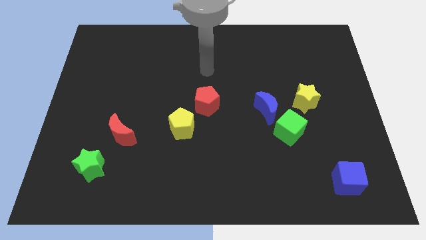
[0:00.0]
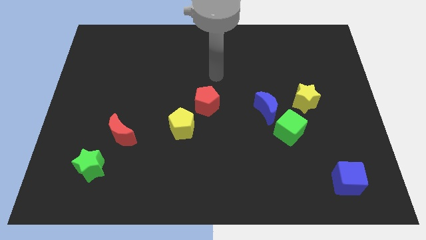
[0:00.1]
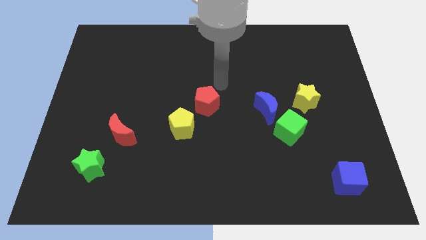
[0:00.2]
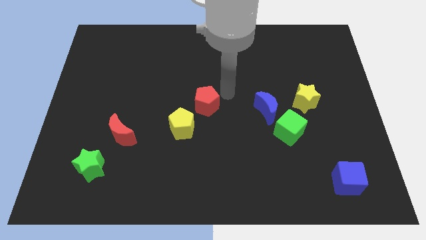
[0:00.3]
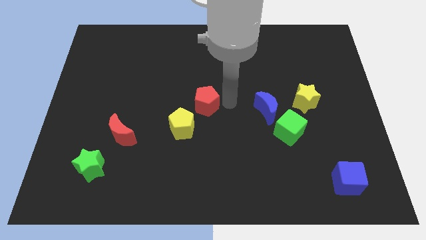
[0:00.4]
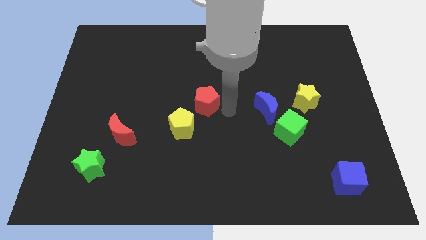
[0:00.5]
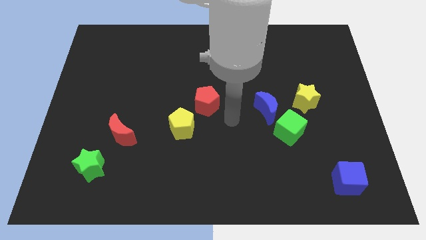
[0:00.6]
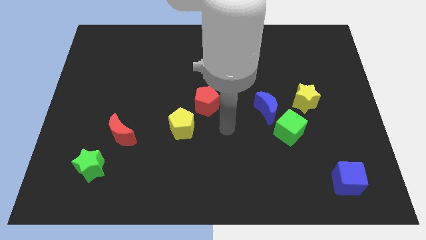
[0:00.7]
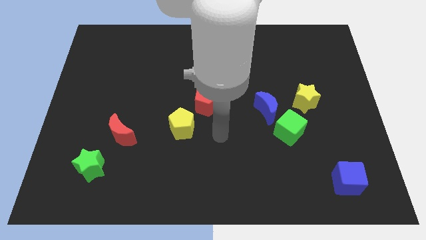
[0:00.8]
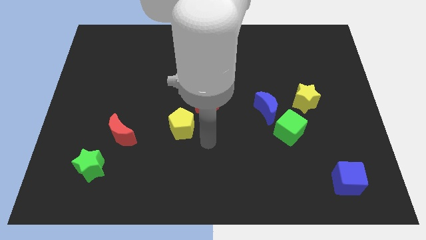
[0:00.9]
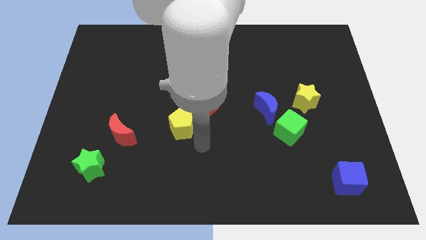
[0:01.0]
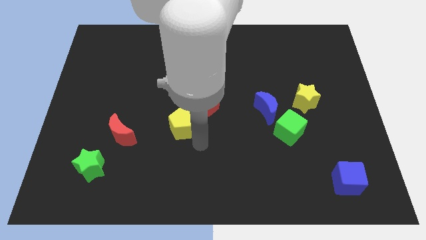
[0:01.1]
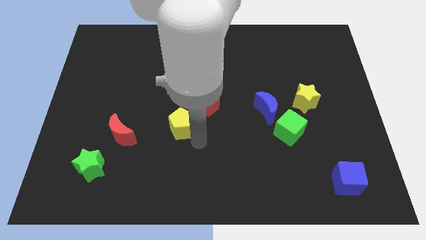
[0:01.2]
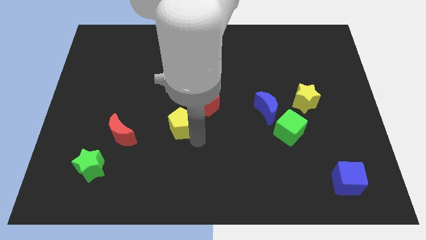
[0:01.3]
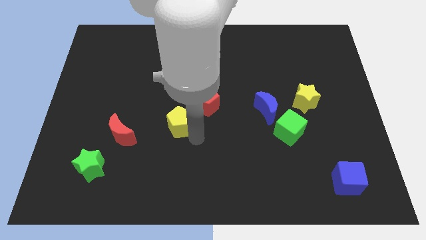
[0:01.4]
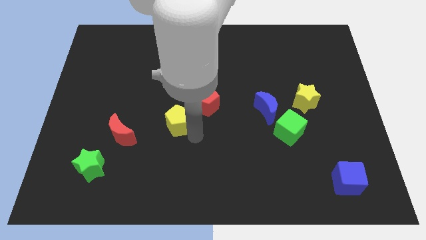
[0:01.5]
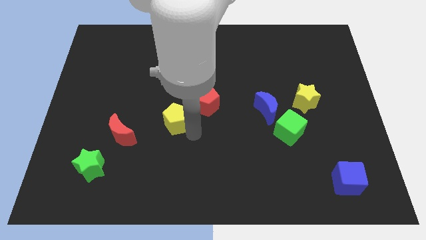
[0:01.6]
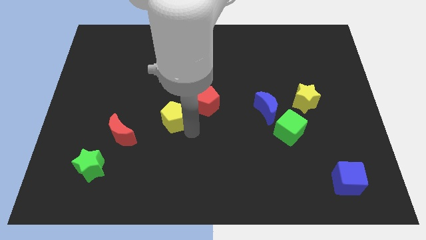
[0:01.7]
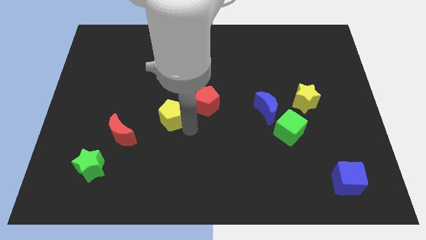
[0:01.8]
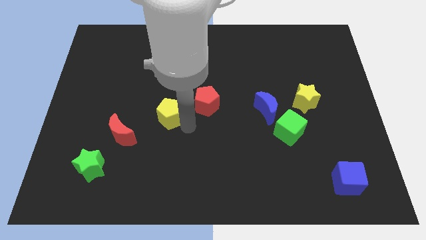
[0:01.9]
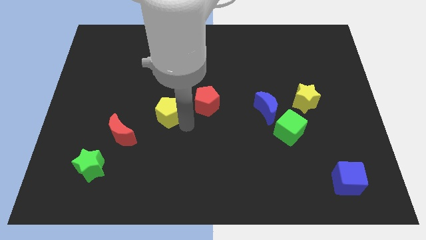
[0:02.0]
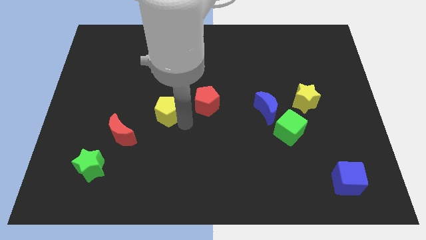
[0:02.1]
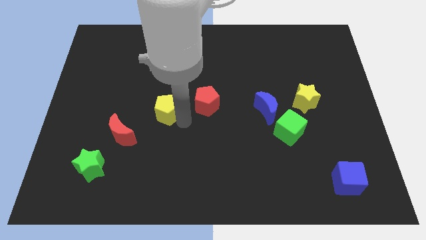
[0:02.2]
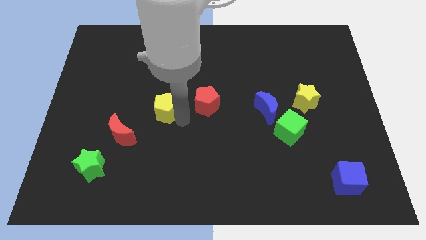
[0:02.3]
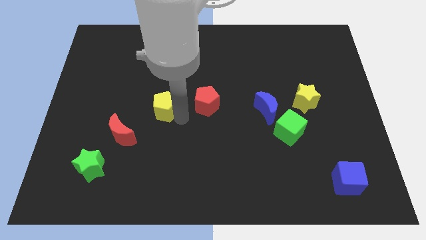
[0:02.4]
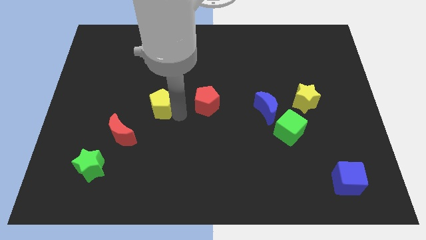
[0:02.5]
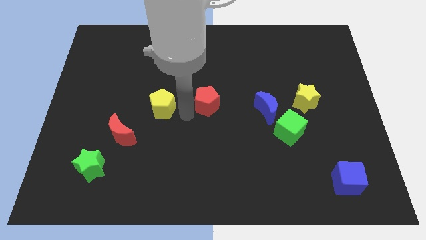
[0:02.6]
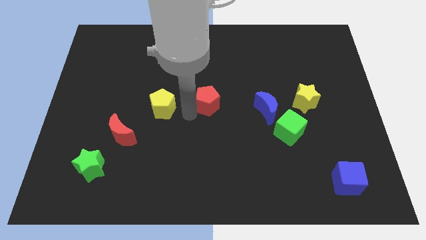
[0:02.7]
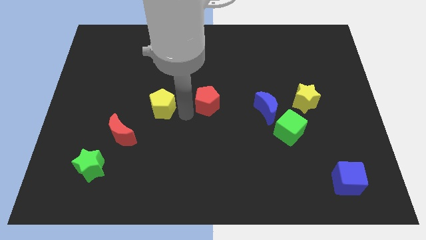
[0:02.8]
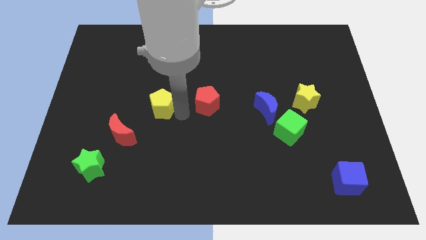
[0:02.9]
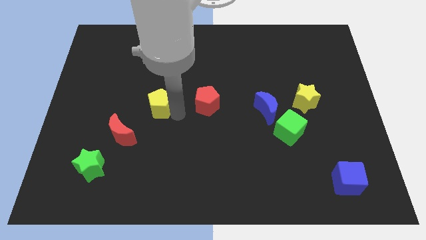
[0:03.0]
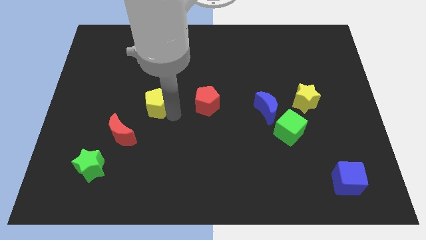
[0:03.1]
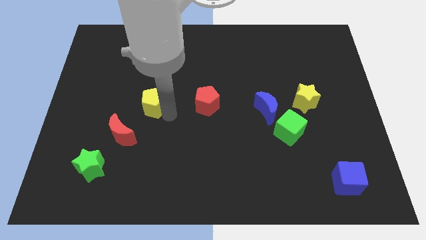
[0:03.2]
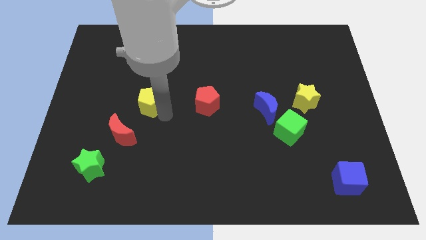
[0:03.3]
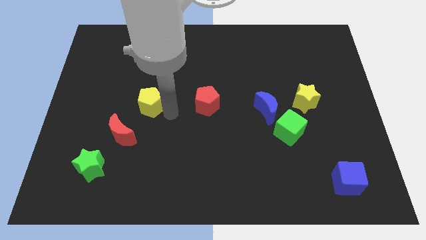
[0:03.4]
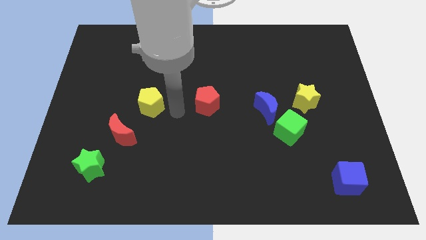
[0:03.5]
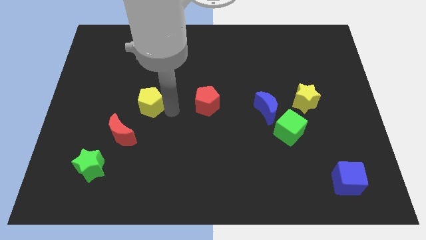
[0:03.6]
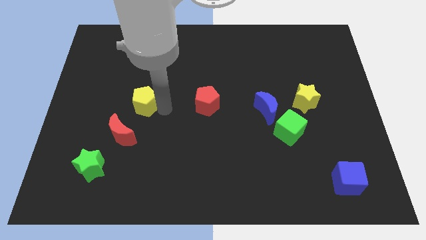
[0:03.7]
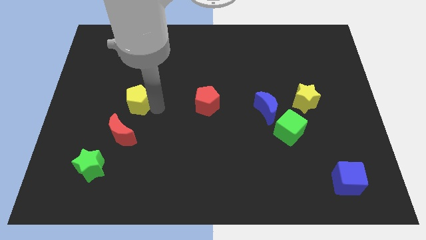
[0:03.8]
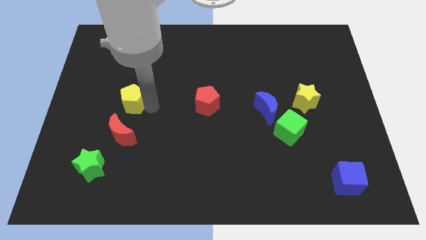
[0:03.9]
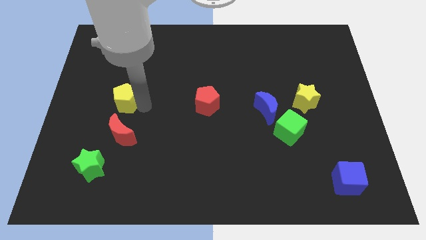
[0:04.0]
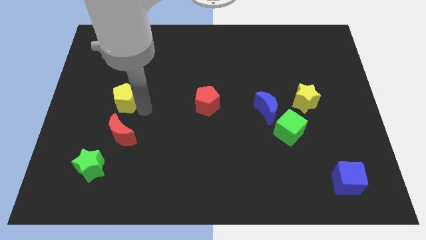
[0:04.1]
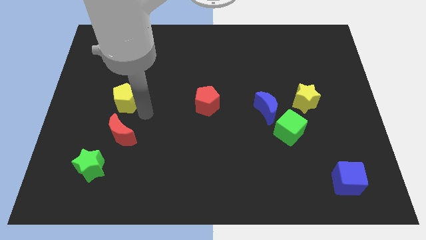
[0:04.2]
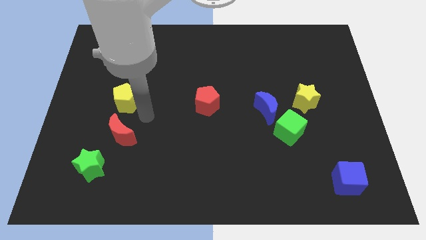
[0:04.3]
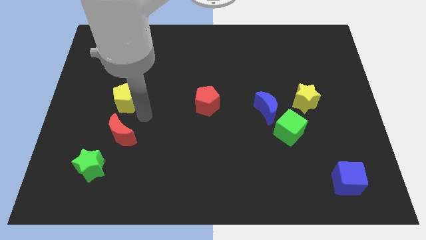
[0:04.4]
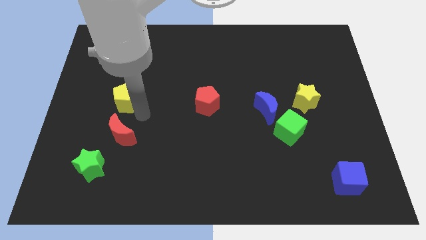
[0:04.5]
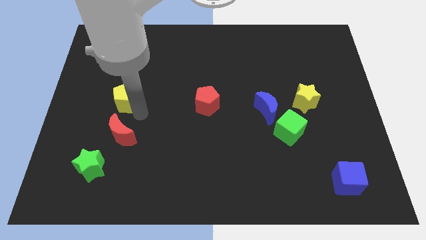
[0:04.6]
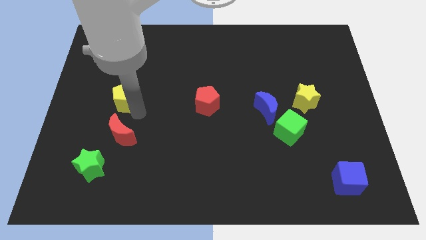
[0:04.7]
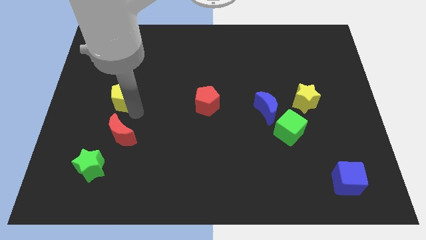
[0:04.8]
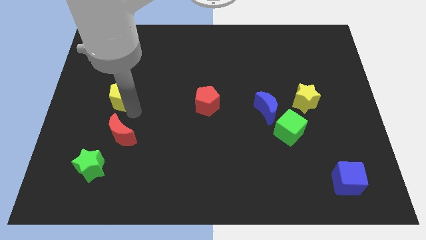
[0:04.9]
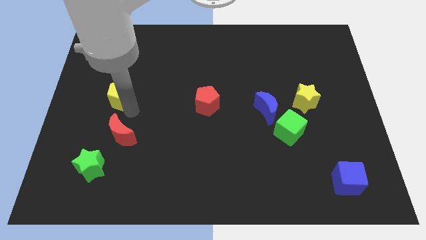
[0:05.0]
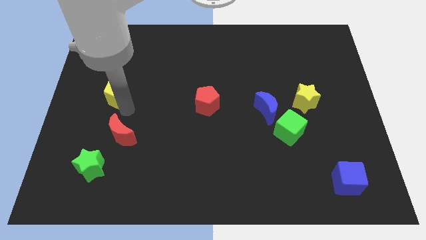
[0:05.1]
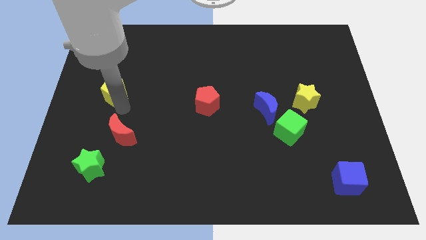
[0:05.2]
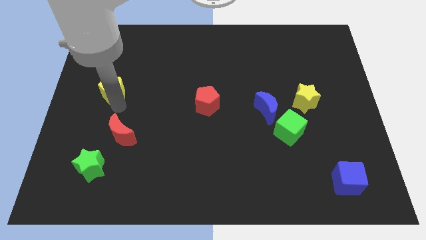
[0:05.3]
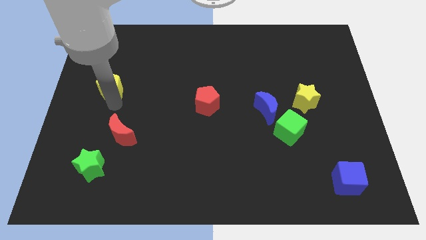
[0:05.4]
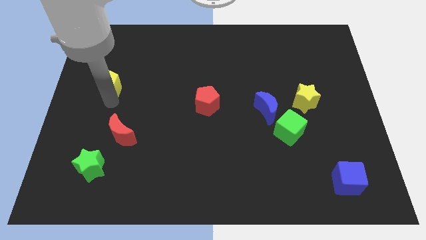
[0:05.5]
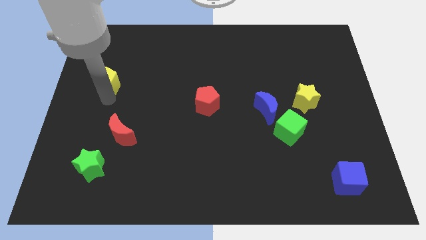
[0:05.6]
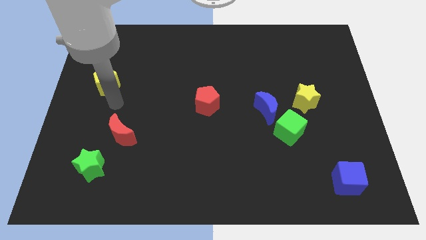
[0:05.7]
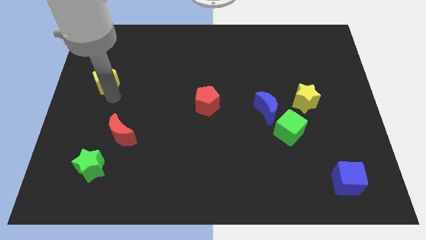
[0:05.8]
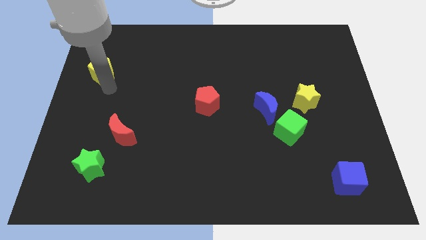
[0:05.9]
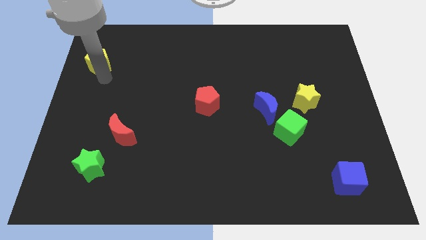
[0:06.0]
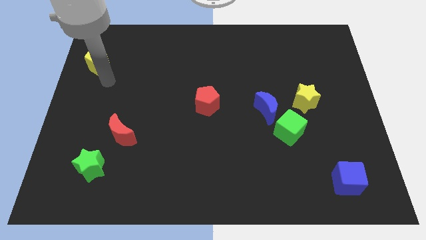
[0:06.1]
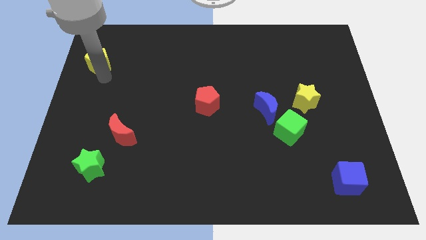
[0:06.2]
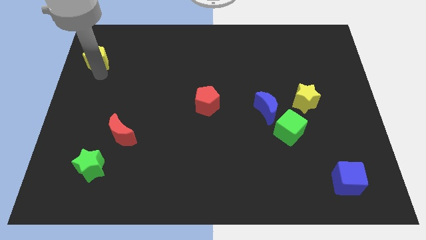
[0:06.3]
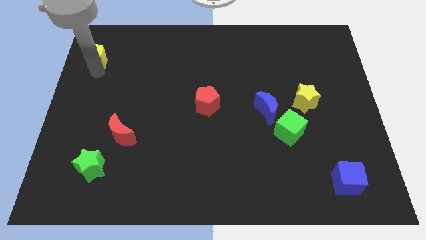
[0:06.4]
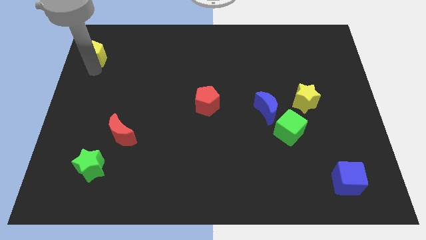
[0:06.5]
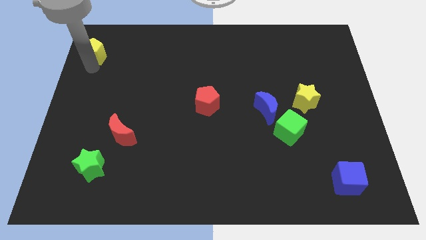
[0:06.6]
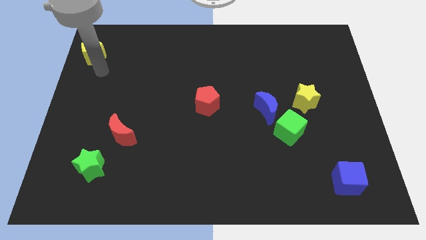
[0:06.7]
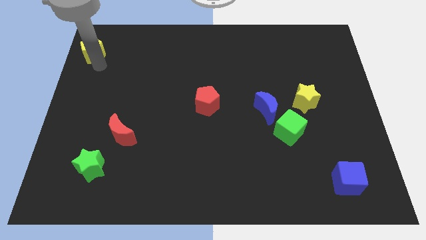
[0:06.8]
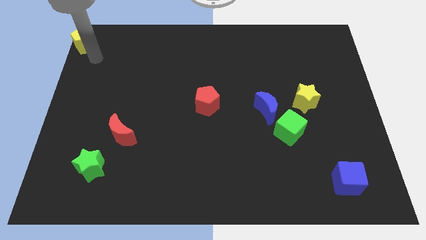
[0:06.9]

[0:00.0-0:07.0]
push the yellow pentagon to the top left of the board
